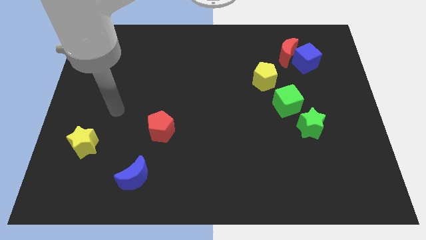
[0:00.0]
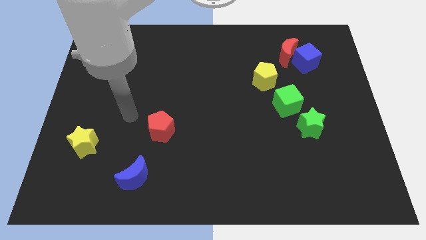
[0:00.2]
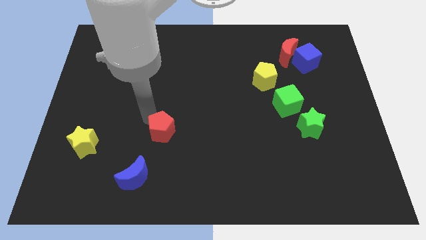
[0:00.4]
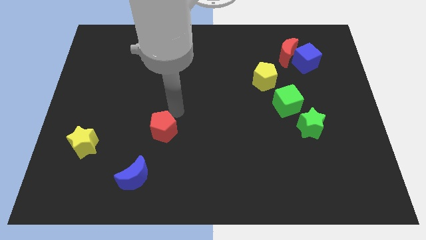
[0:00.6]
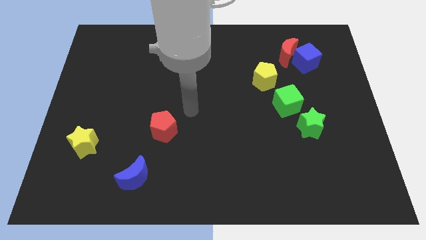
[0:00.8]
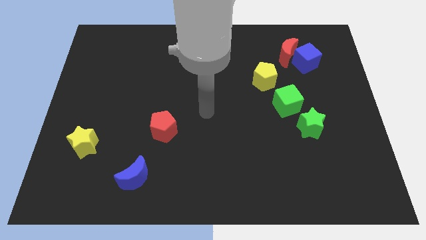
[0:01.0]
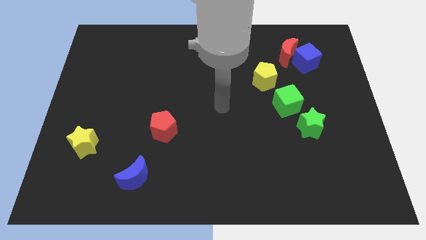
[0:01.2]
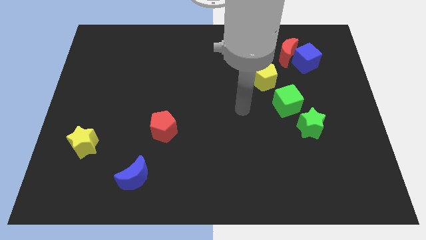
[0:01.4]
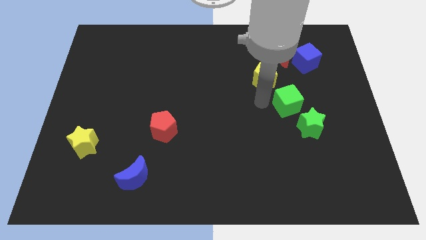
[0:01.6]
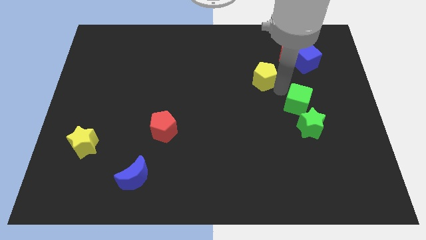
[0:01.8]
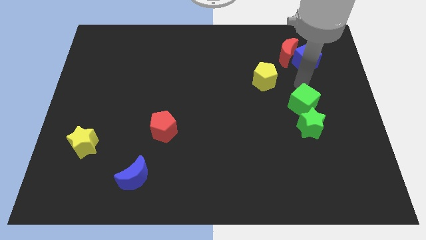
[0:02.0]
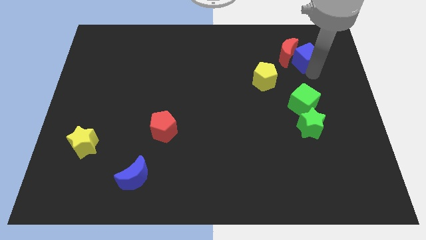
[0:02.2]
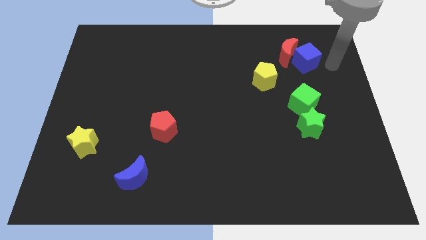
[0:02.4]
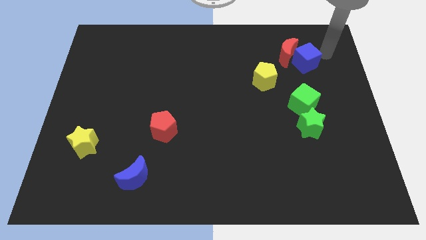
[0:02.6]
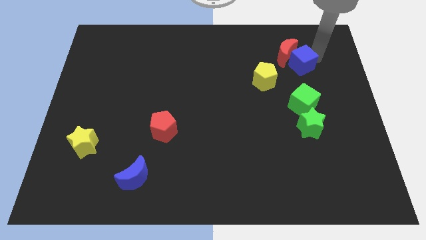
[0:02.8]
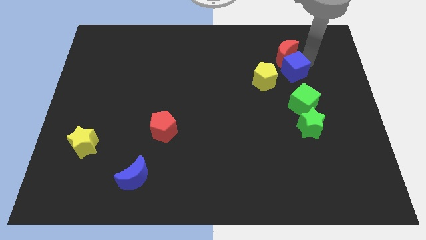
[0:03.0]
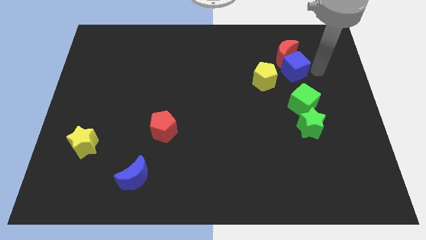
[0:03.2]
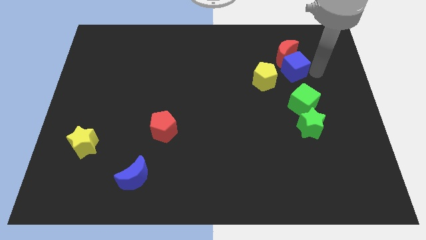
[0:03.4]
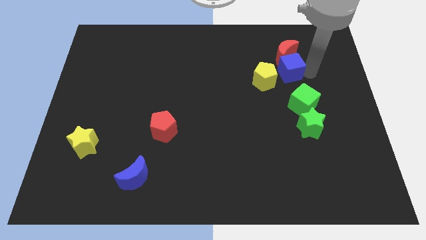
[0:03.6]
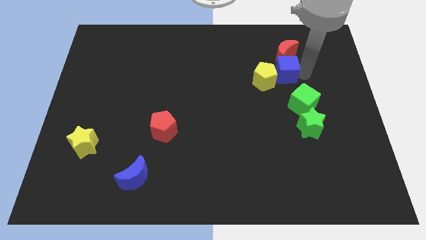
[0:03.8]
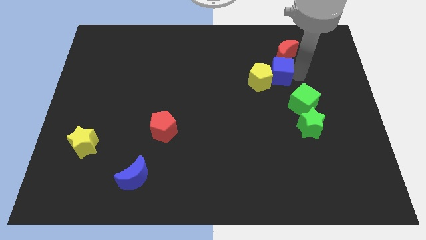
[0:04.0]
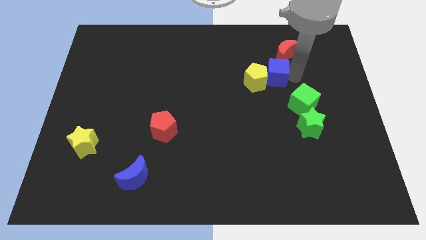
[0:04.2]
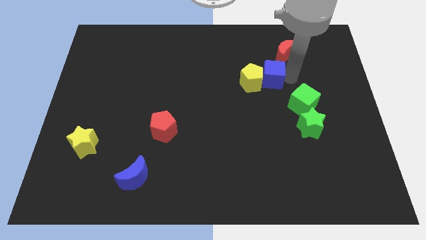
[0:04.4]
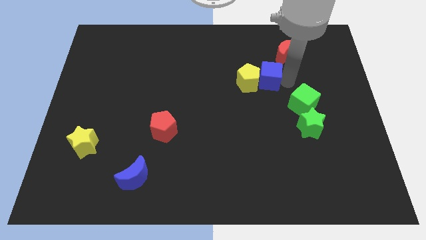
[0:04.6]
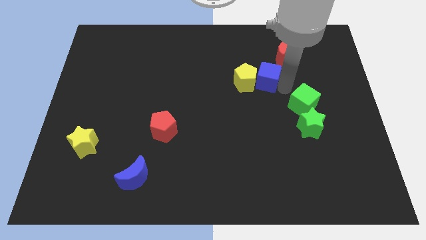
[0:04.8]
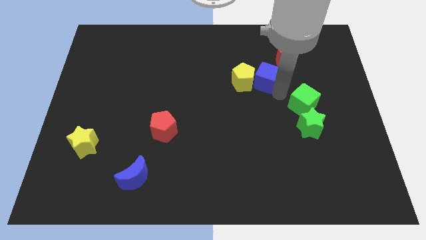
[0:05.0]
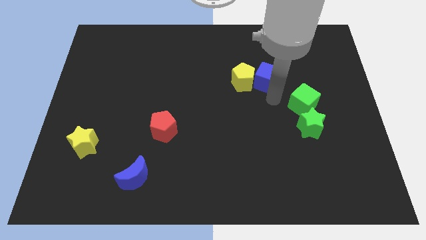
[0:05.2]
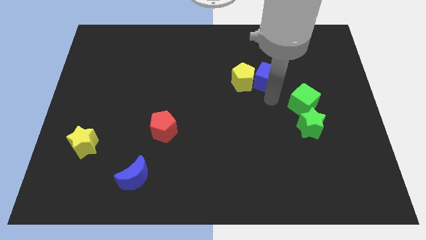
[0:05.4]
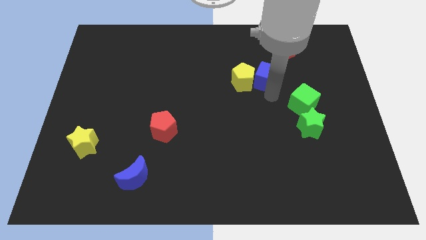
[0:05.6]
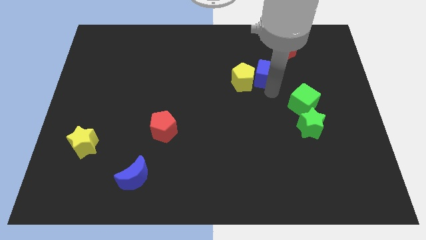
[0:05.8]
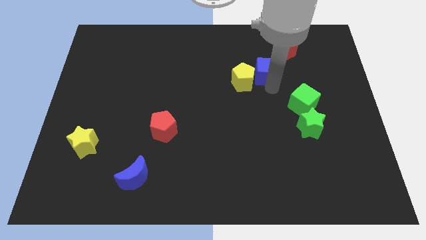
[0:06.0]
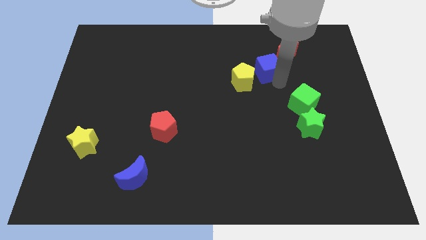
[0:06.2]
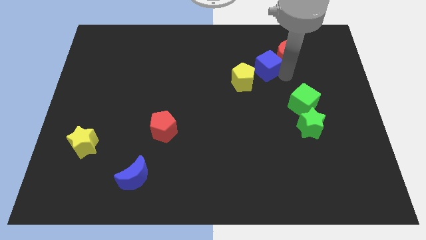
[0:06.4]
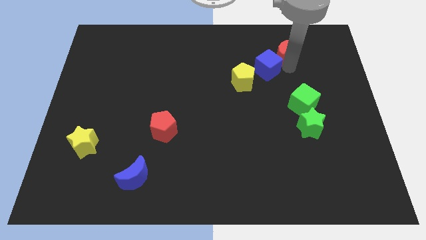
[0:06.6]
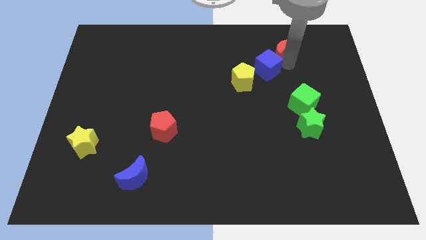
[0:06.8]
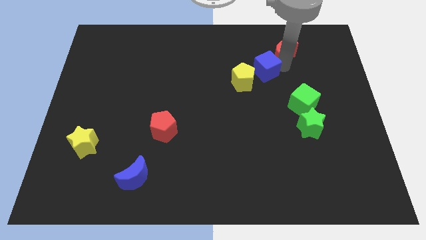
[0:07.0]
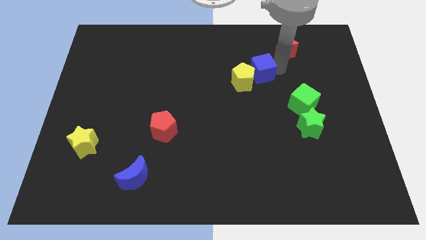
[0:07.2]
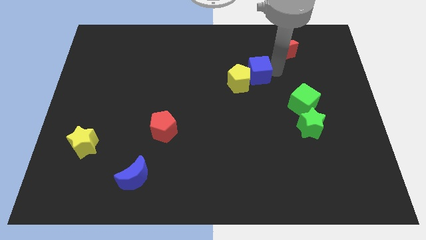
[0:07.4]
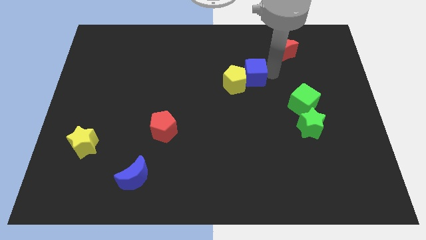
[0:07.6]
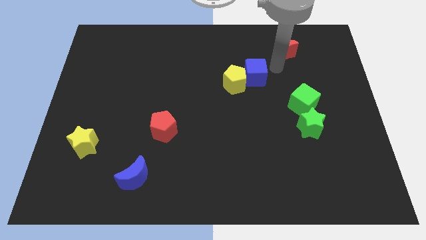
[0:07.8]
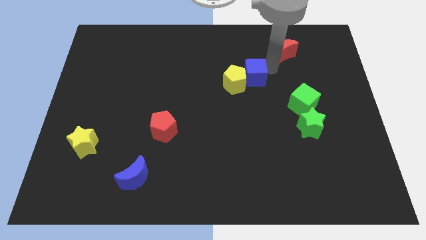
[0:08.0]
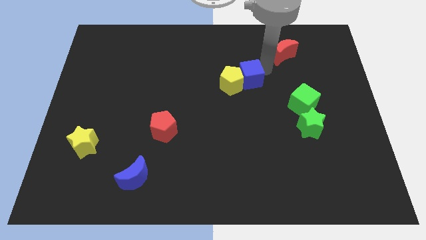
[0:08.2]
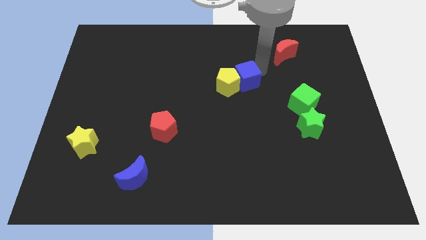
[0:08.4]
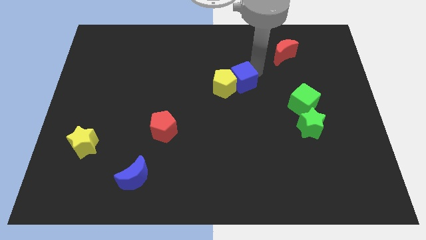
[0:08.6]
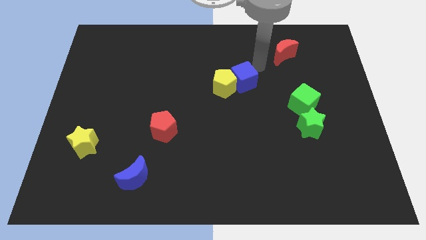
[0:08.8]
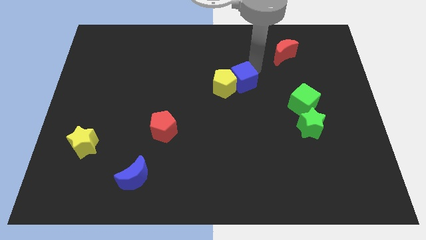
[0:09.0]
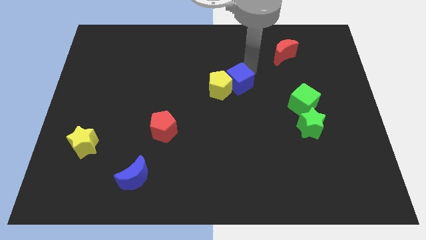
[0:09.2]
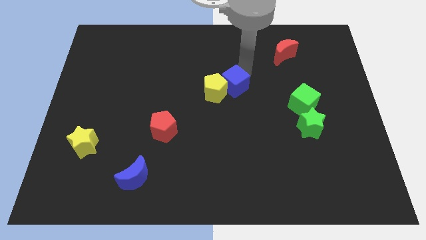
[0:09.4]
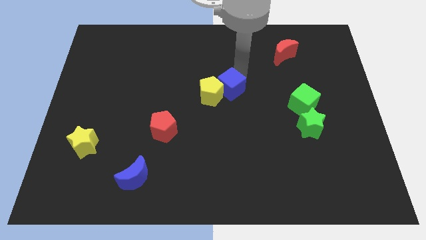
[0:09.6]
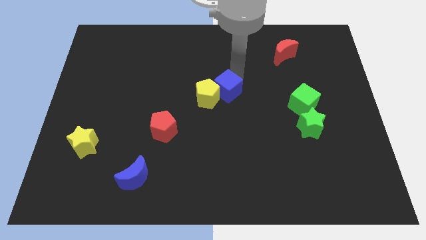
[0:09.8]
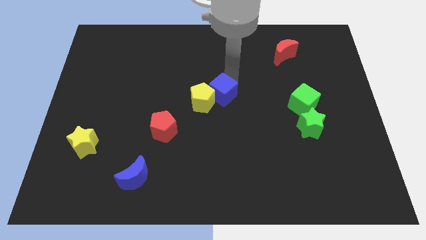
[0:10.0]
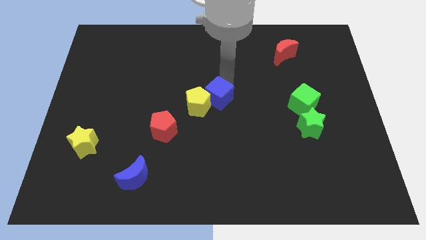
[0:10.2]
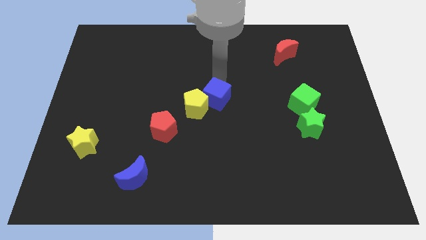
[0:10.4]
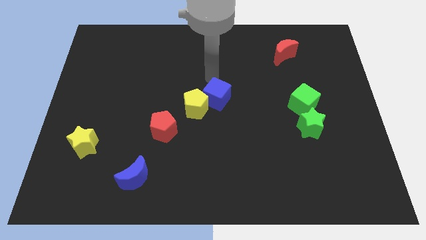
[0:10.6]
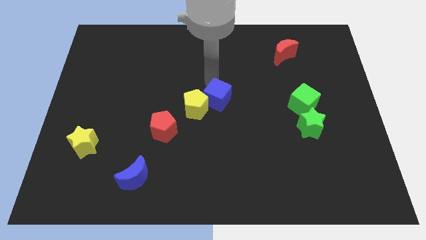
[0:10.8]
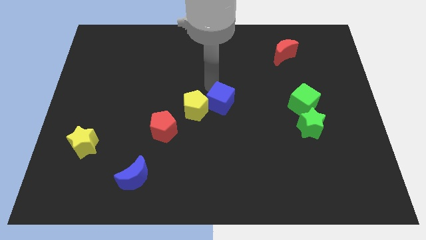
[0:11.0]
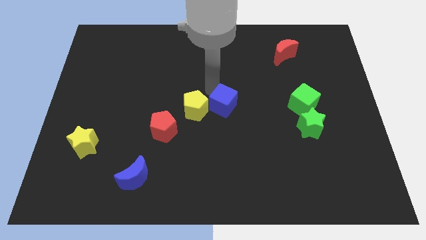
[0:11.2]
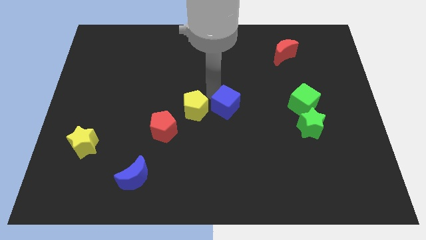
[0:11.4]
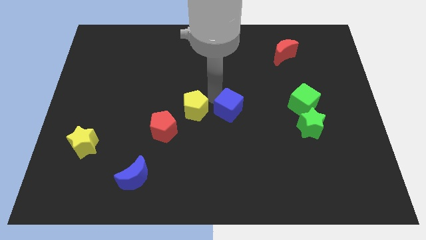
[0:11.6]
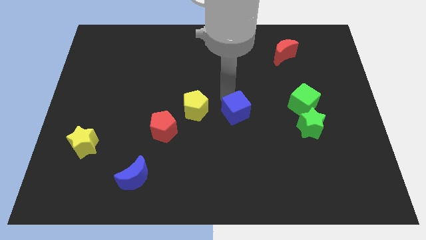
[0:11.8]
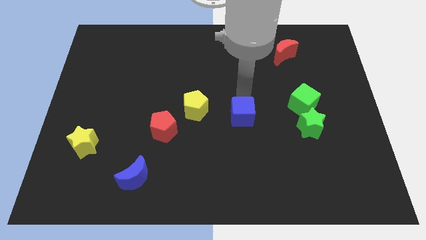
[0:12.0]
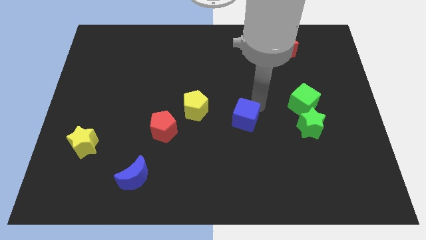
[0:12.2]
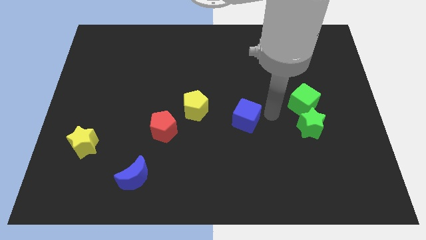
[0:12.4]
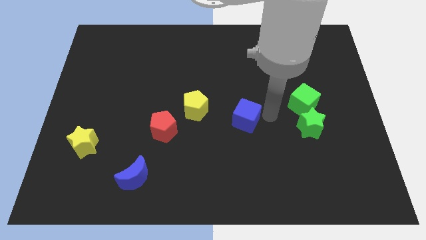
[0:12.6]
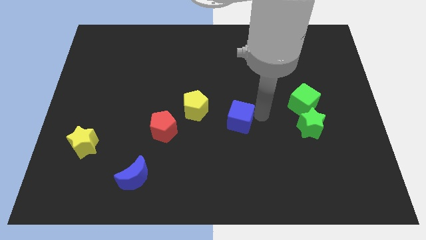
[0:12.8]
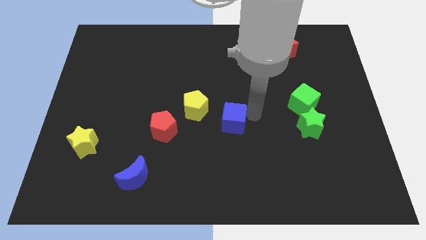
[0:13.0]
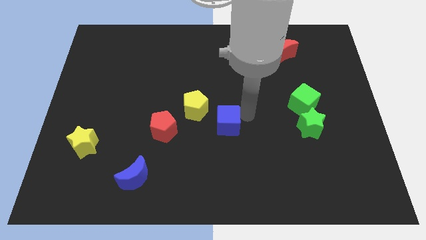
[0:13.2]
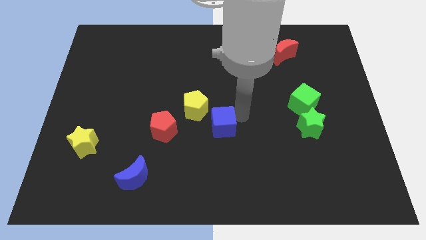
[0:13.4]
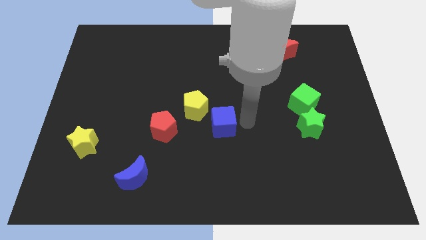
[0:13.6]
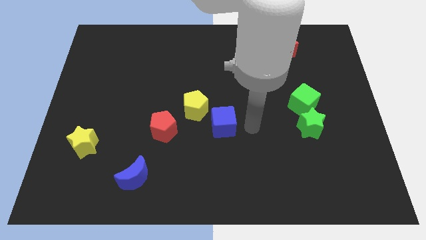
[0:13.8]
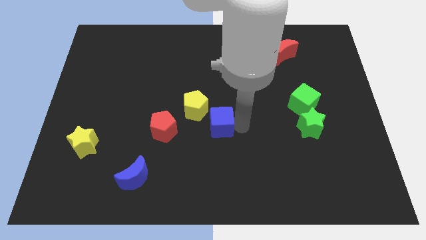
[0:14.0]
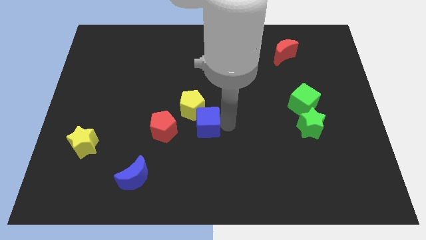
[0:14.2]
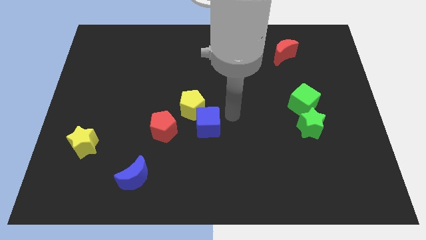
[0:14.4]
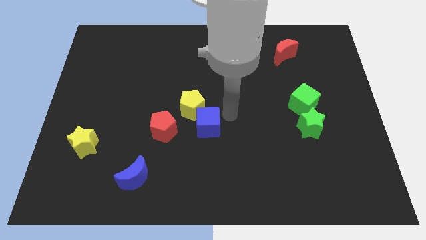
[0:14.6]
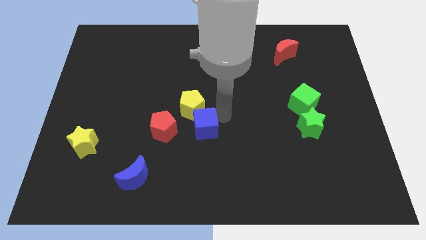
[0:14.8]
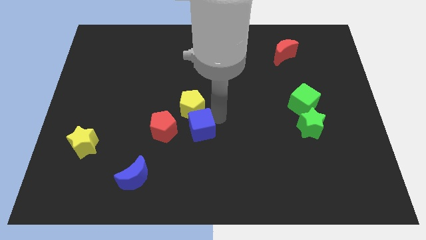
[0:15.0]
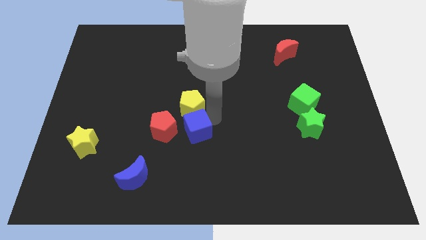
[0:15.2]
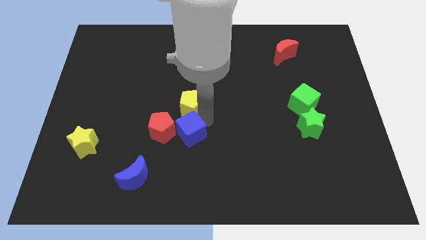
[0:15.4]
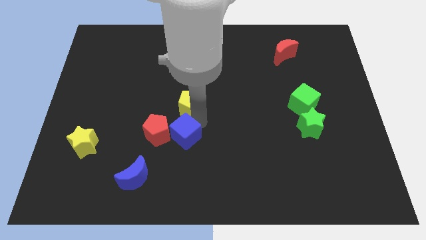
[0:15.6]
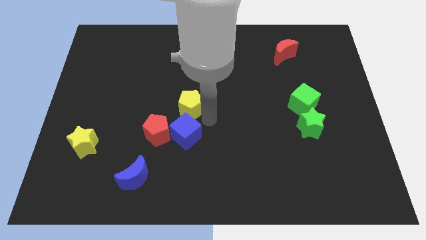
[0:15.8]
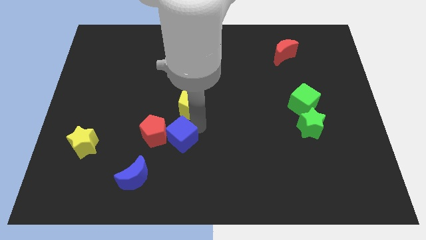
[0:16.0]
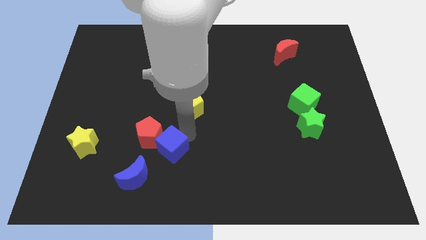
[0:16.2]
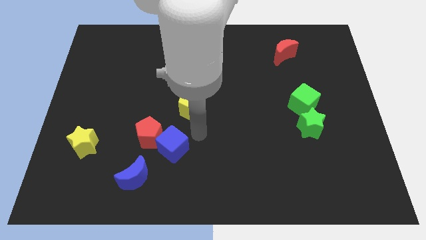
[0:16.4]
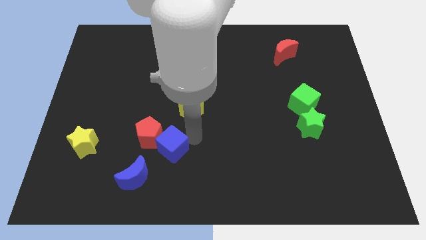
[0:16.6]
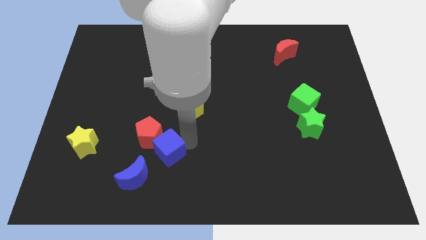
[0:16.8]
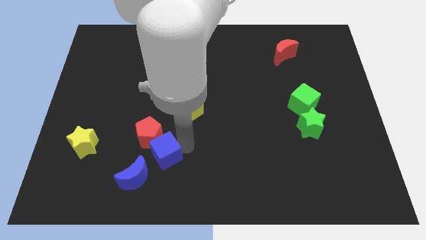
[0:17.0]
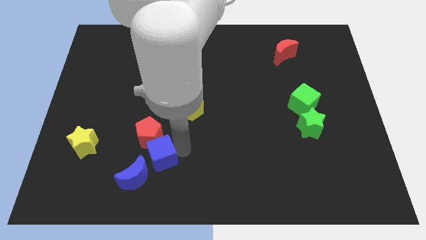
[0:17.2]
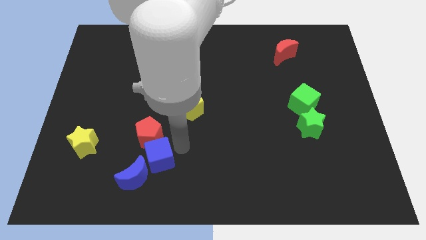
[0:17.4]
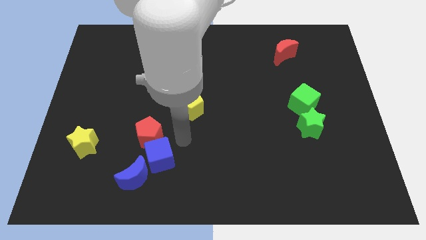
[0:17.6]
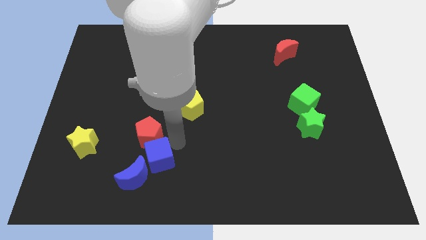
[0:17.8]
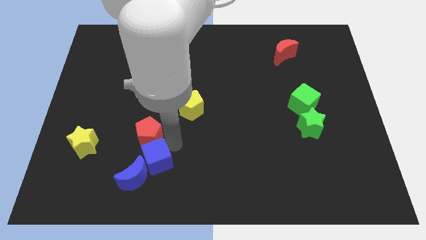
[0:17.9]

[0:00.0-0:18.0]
move the blue cube to the blue moon
